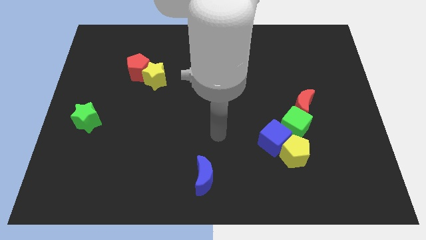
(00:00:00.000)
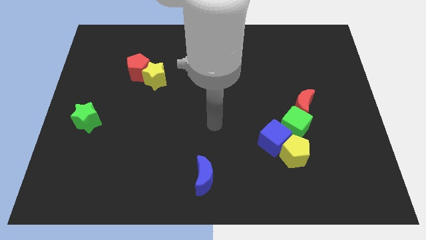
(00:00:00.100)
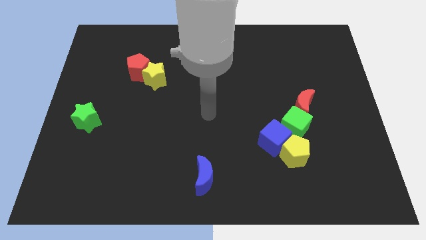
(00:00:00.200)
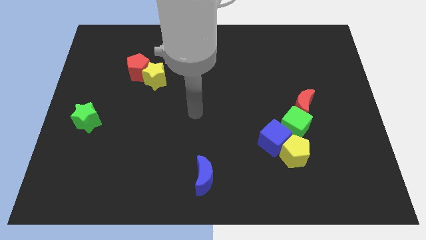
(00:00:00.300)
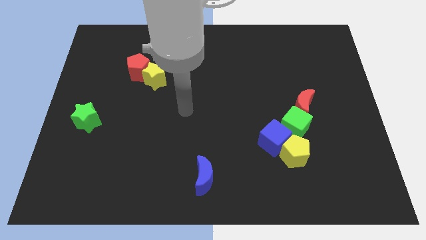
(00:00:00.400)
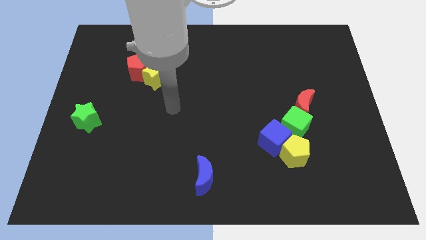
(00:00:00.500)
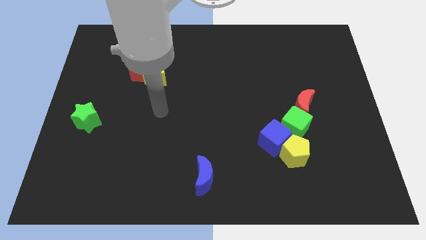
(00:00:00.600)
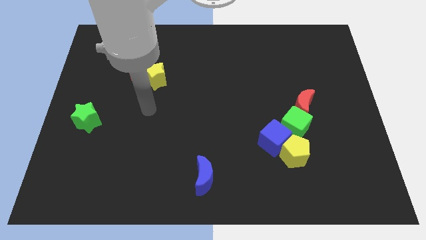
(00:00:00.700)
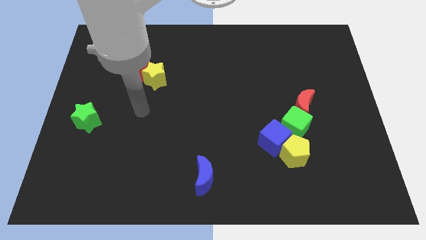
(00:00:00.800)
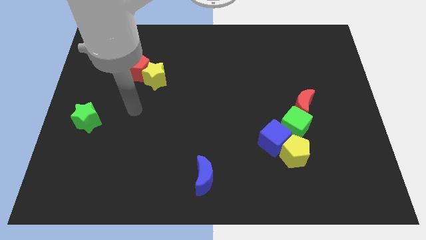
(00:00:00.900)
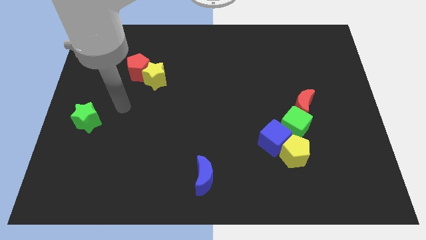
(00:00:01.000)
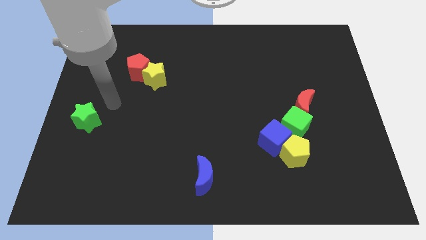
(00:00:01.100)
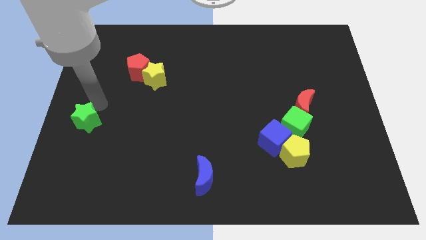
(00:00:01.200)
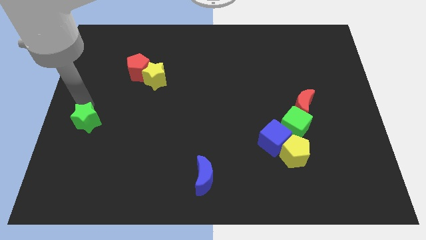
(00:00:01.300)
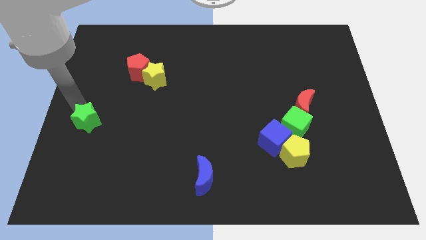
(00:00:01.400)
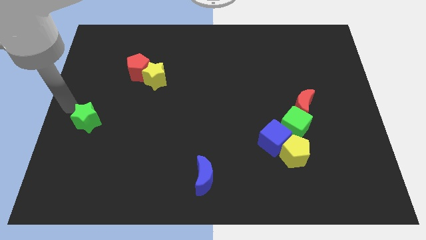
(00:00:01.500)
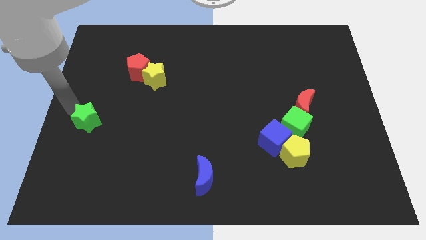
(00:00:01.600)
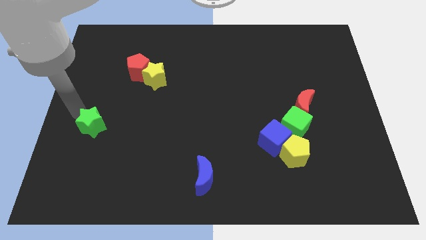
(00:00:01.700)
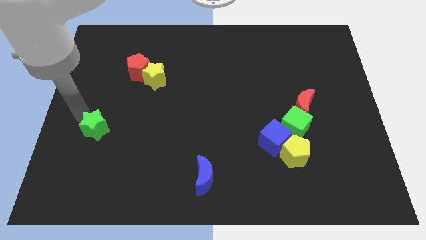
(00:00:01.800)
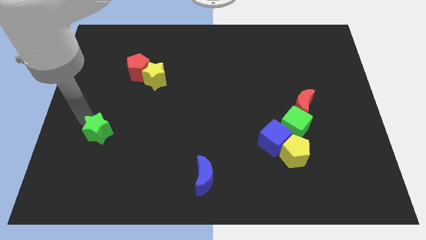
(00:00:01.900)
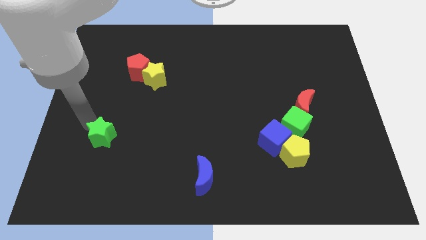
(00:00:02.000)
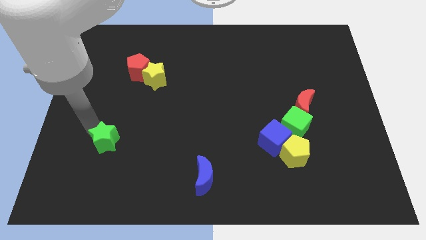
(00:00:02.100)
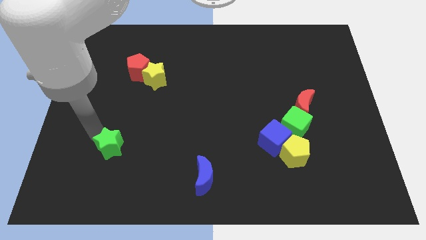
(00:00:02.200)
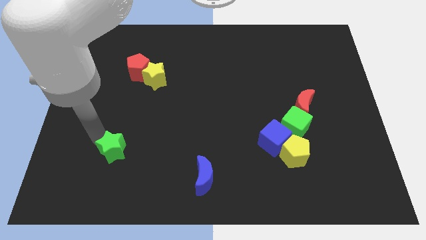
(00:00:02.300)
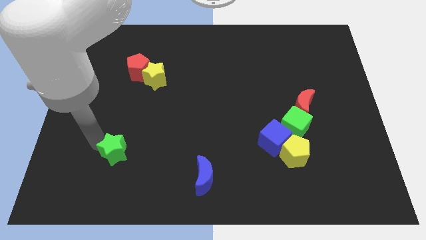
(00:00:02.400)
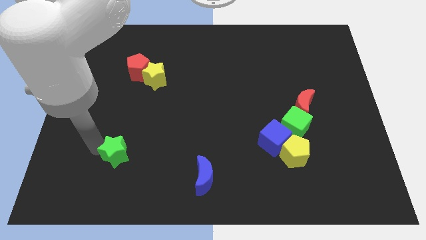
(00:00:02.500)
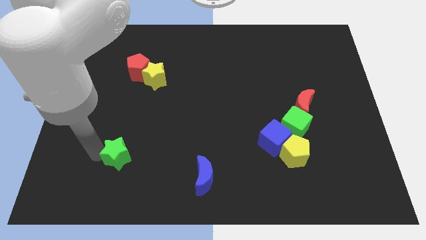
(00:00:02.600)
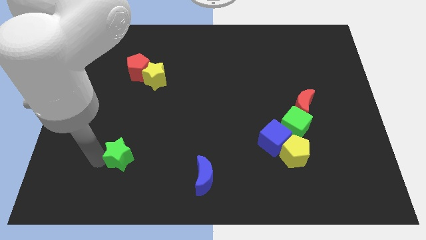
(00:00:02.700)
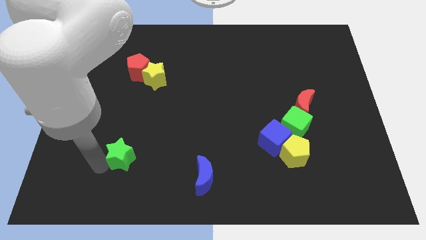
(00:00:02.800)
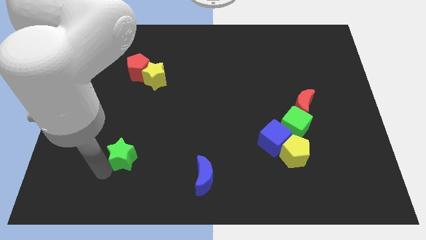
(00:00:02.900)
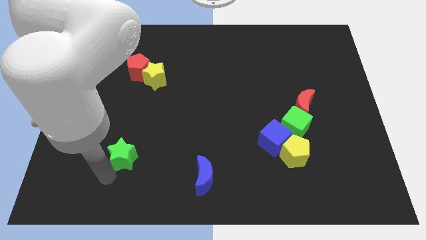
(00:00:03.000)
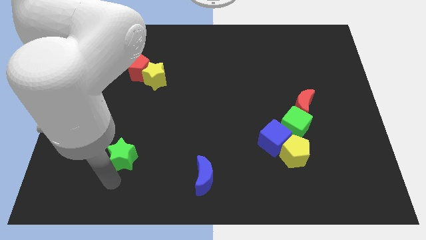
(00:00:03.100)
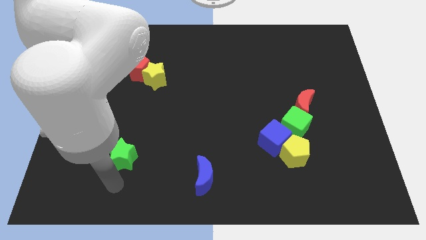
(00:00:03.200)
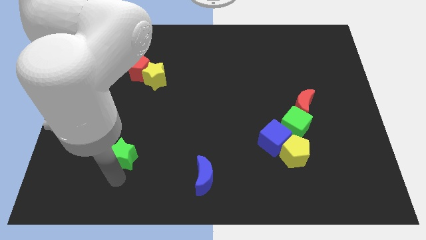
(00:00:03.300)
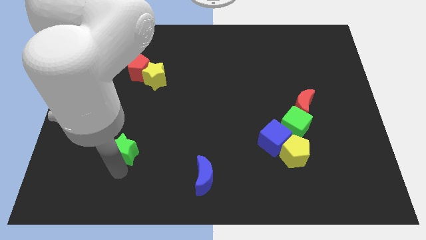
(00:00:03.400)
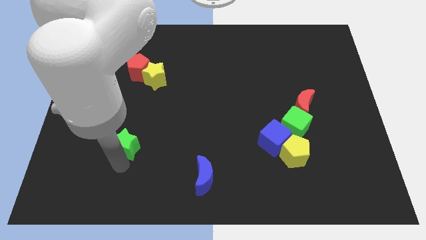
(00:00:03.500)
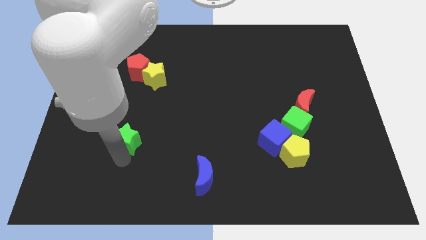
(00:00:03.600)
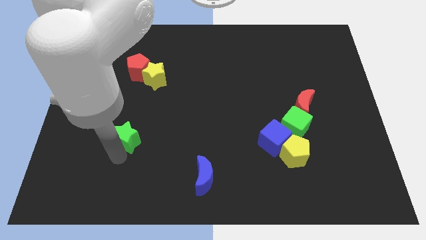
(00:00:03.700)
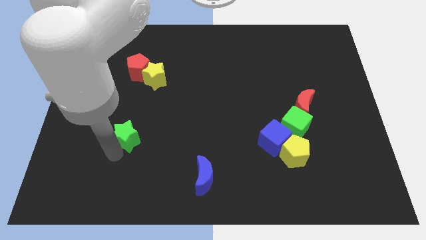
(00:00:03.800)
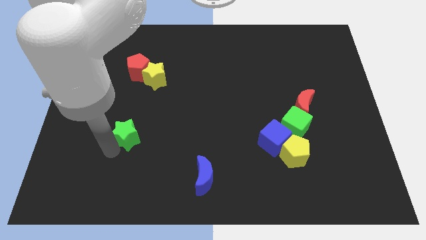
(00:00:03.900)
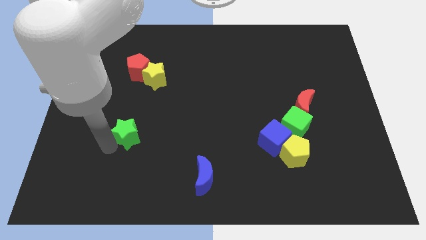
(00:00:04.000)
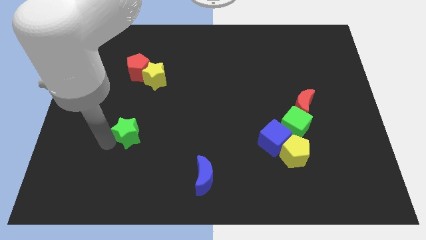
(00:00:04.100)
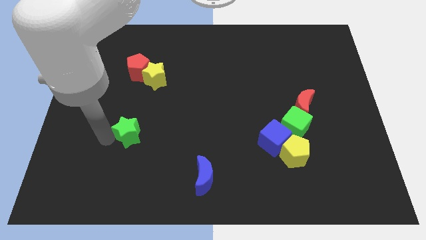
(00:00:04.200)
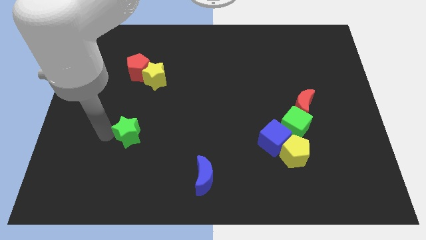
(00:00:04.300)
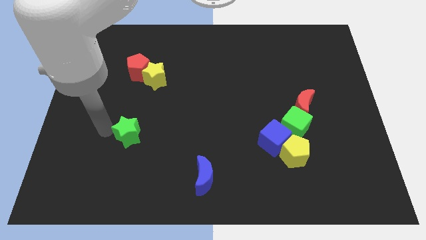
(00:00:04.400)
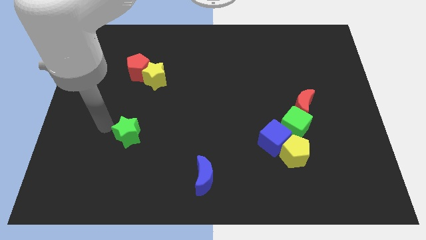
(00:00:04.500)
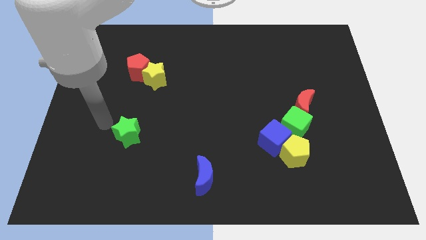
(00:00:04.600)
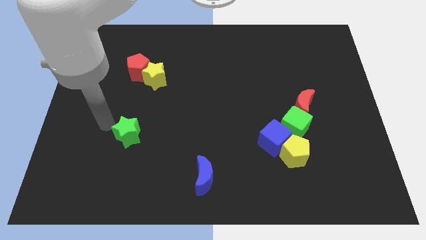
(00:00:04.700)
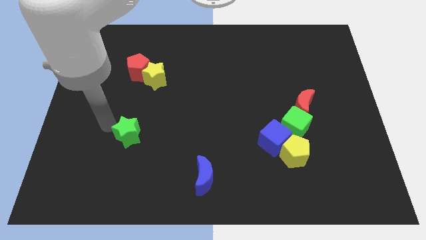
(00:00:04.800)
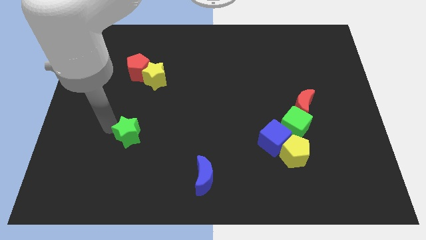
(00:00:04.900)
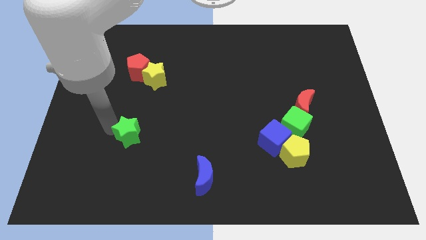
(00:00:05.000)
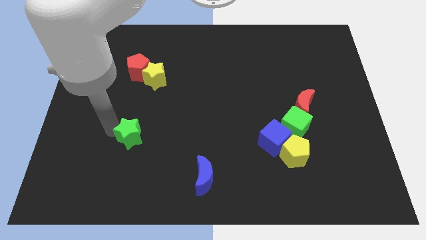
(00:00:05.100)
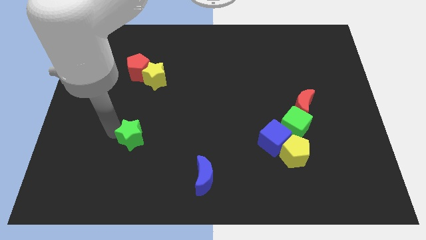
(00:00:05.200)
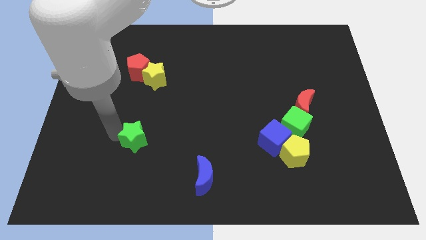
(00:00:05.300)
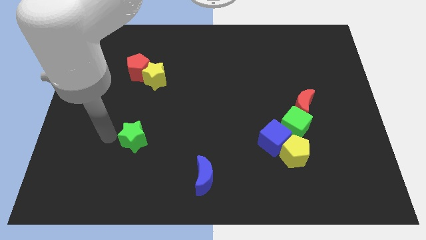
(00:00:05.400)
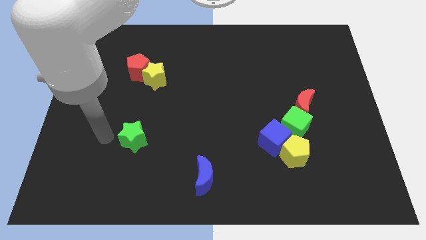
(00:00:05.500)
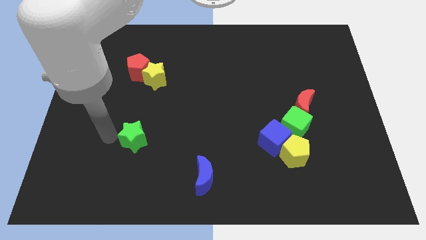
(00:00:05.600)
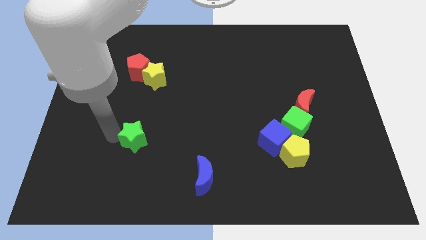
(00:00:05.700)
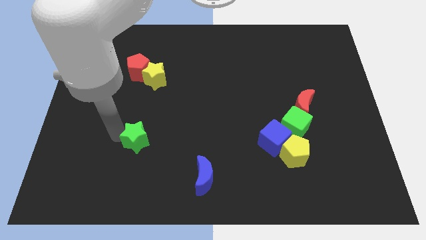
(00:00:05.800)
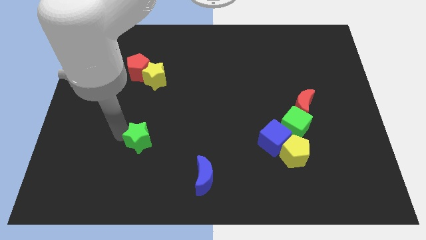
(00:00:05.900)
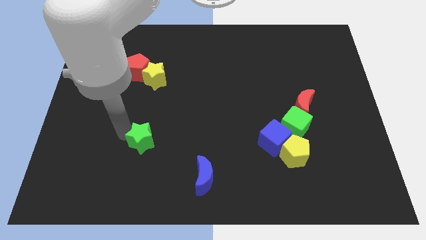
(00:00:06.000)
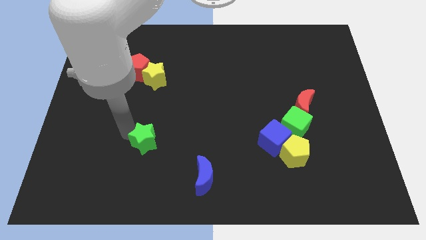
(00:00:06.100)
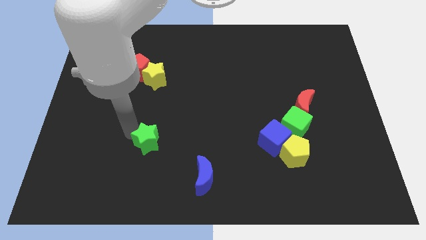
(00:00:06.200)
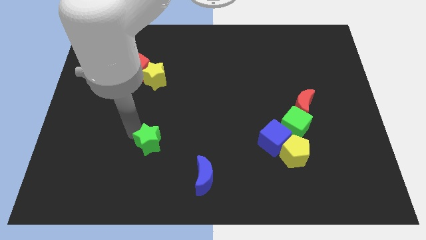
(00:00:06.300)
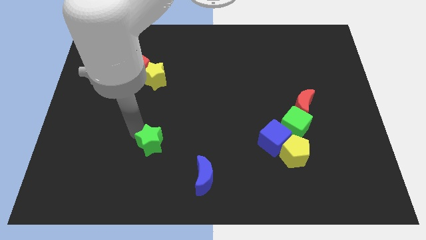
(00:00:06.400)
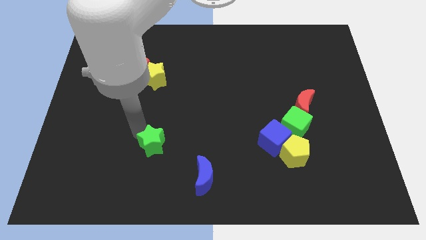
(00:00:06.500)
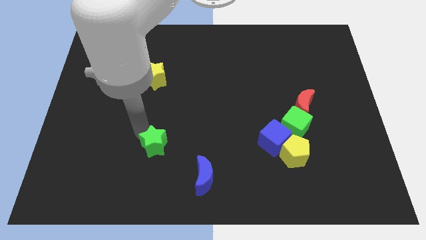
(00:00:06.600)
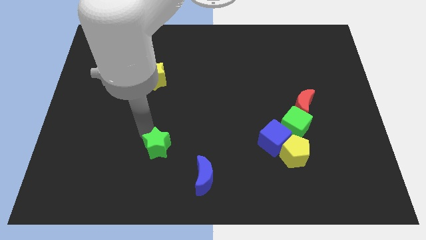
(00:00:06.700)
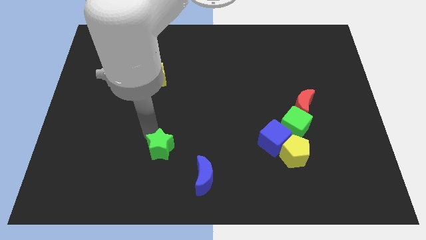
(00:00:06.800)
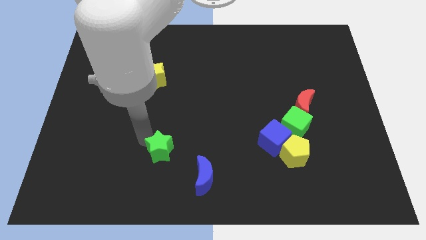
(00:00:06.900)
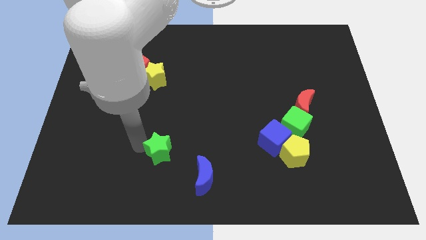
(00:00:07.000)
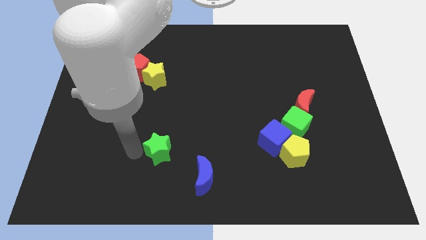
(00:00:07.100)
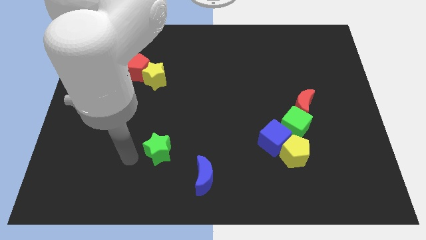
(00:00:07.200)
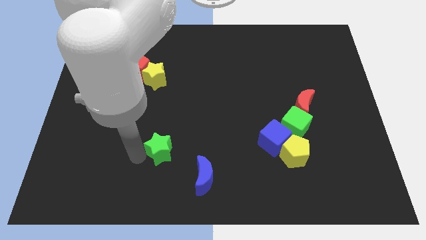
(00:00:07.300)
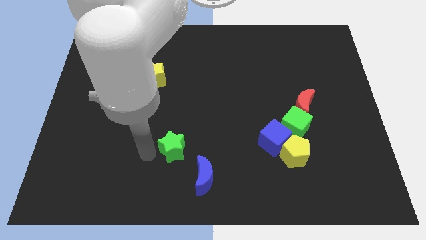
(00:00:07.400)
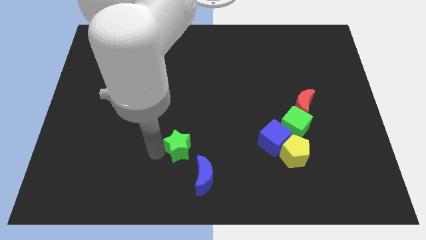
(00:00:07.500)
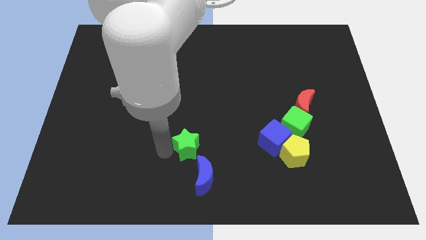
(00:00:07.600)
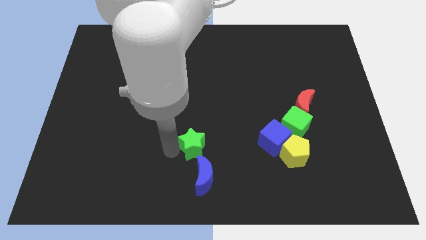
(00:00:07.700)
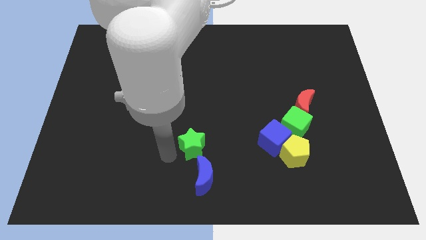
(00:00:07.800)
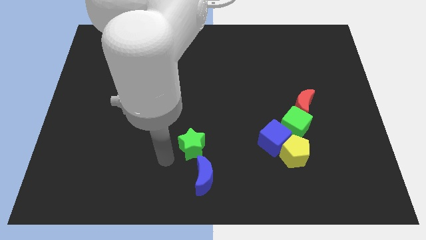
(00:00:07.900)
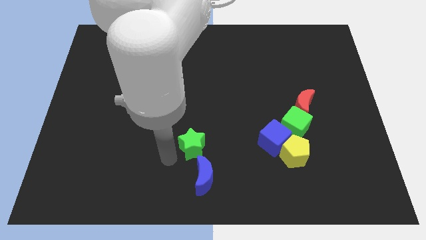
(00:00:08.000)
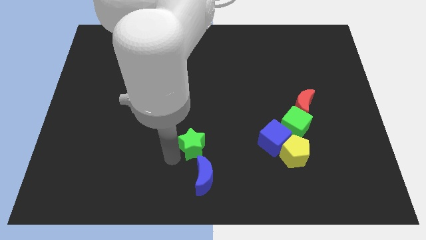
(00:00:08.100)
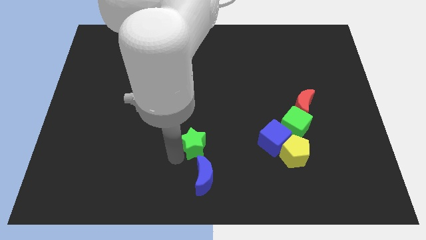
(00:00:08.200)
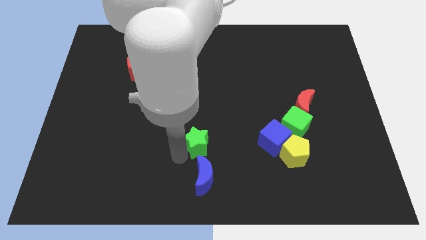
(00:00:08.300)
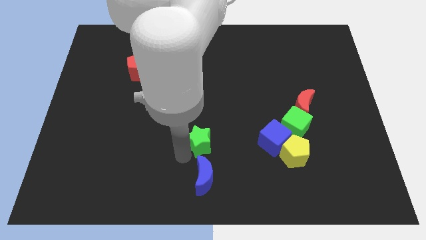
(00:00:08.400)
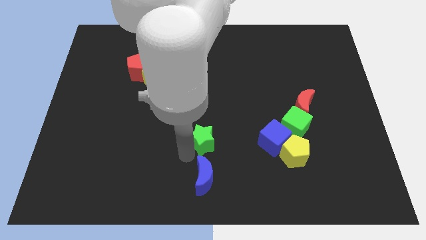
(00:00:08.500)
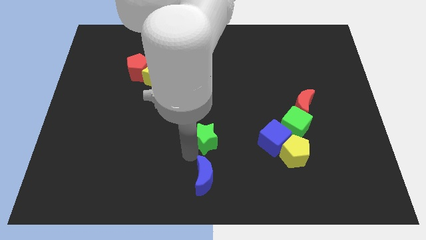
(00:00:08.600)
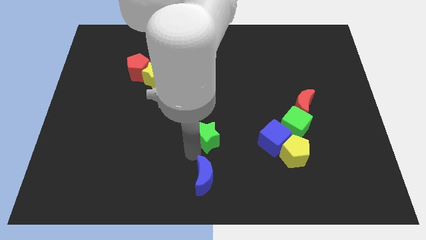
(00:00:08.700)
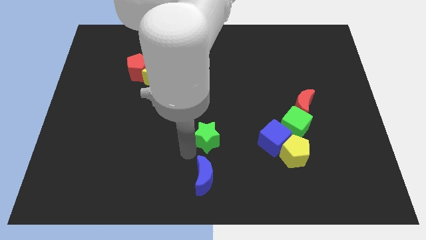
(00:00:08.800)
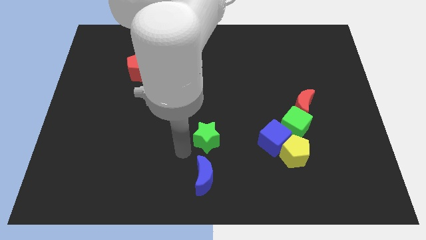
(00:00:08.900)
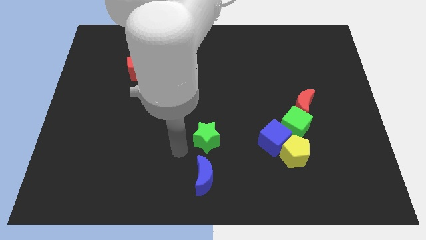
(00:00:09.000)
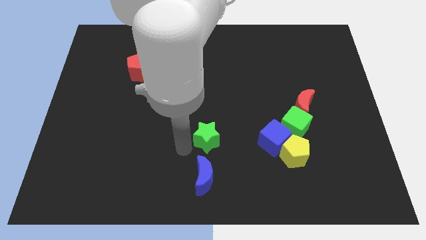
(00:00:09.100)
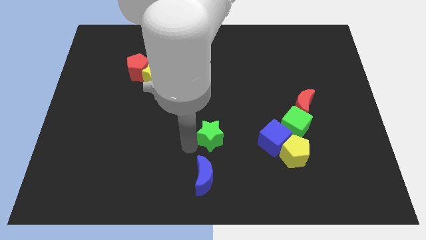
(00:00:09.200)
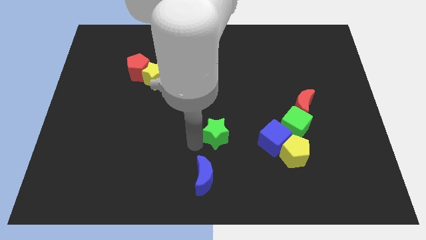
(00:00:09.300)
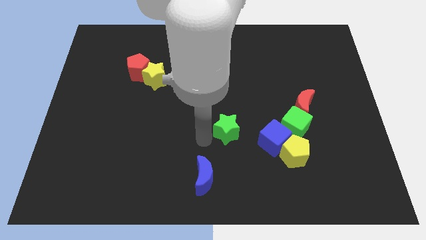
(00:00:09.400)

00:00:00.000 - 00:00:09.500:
put the green star to the left of the green cube
